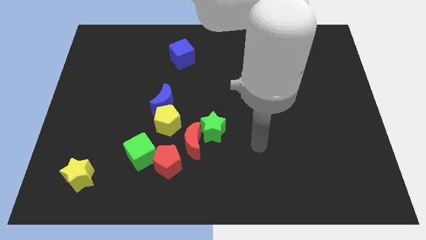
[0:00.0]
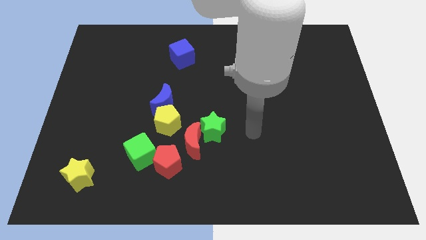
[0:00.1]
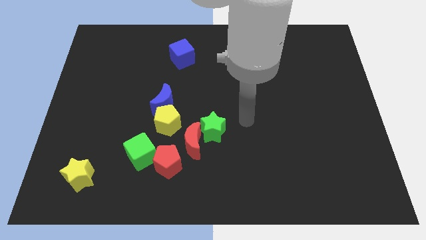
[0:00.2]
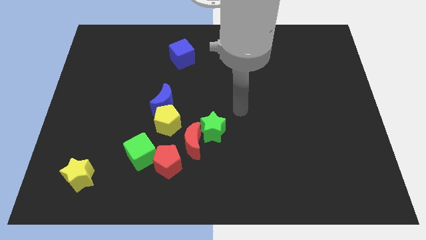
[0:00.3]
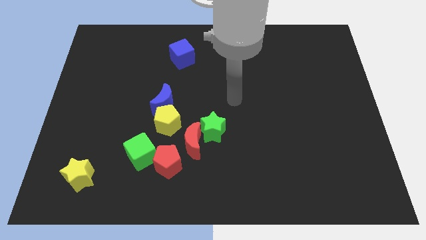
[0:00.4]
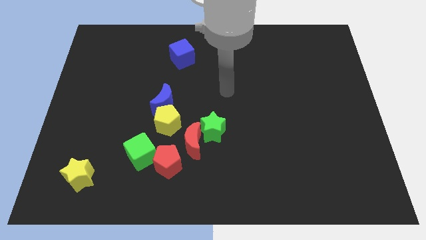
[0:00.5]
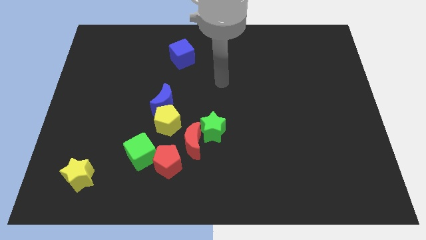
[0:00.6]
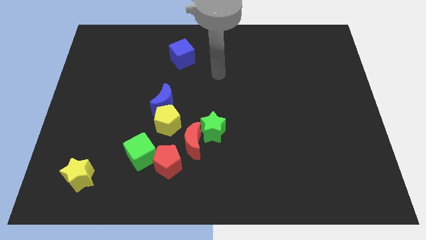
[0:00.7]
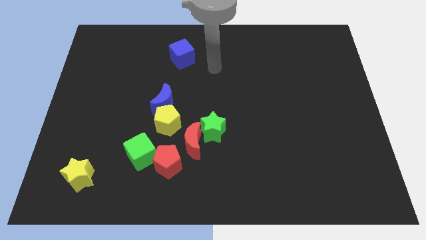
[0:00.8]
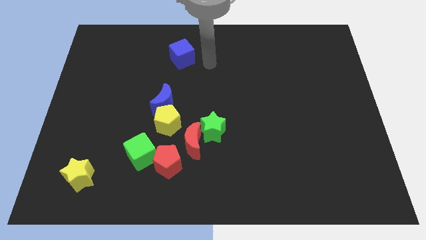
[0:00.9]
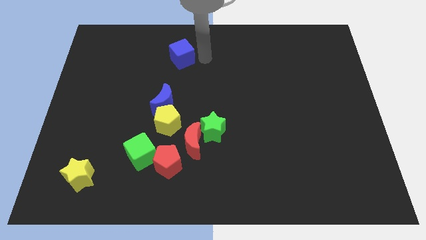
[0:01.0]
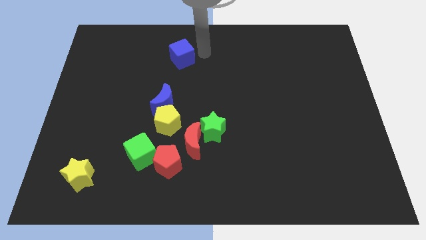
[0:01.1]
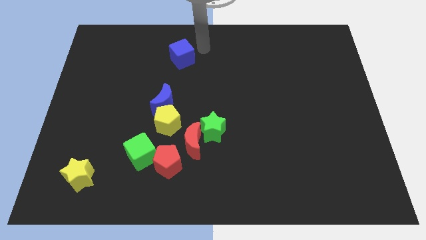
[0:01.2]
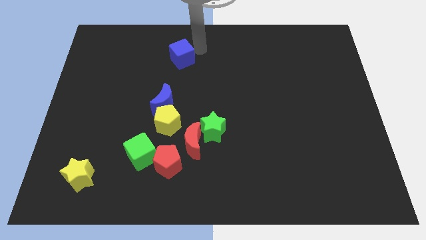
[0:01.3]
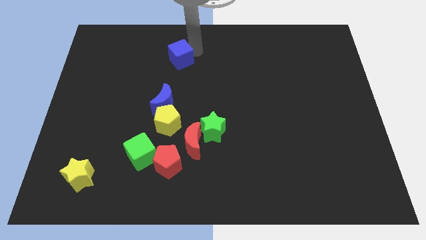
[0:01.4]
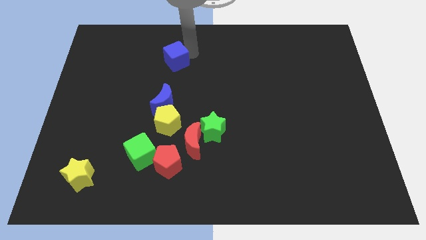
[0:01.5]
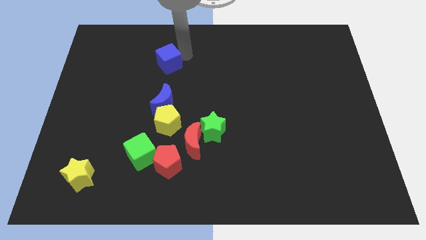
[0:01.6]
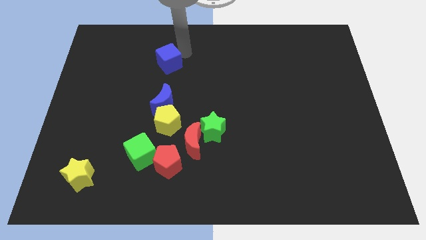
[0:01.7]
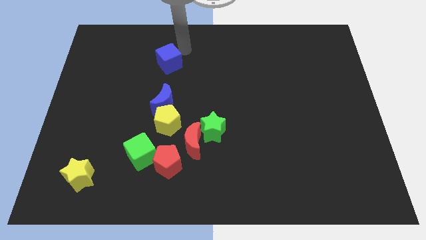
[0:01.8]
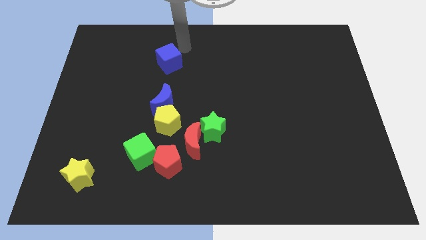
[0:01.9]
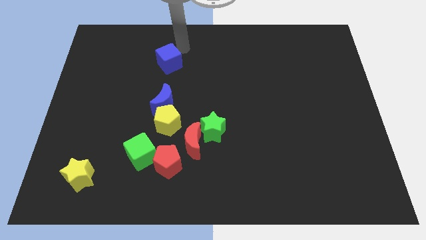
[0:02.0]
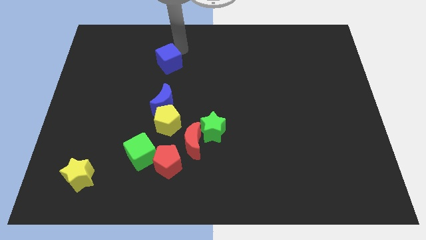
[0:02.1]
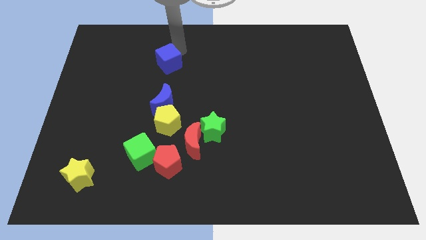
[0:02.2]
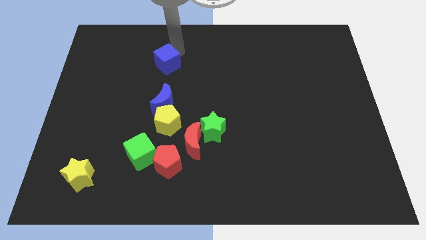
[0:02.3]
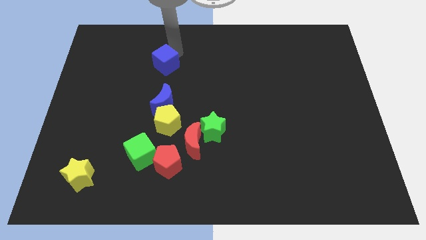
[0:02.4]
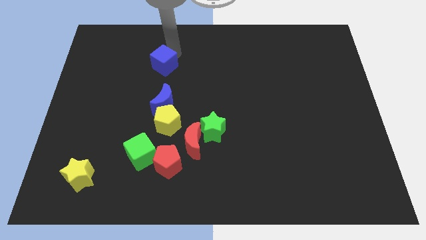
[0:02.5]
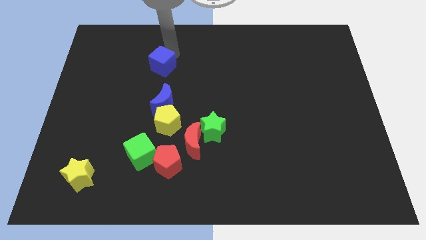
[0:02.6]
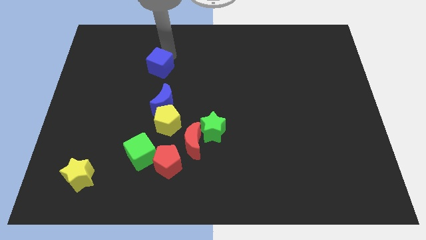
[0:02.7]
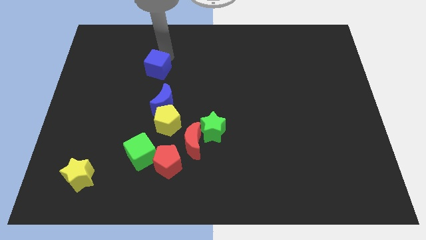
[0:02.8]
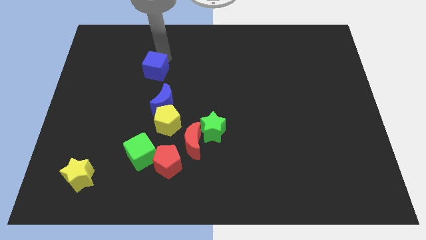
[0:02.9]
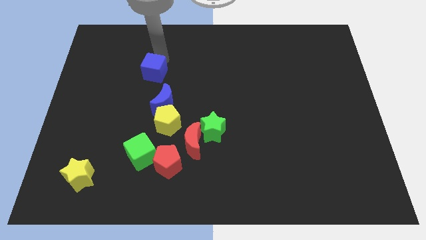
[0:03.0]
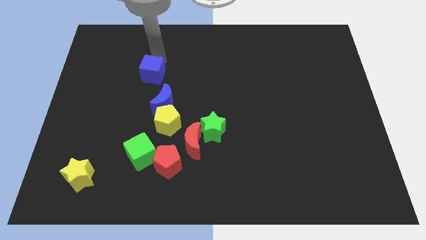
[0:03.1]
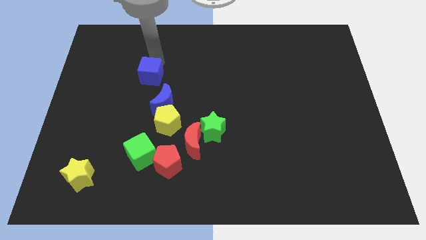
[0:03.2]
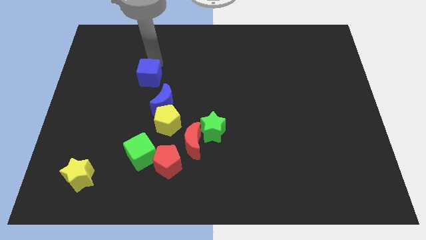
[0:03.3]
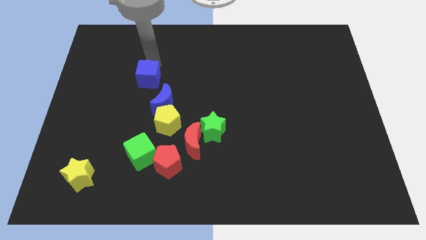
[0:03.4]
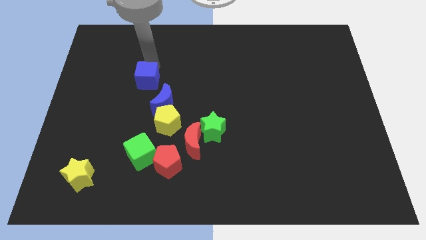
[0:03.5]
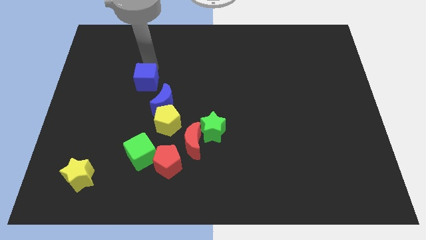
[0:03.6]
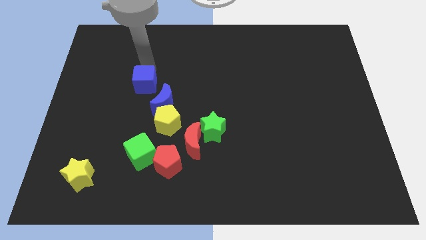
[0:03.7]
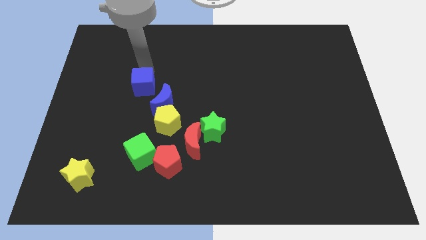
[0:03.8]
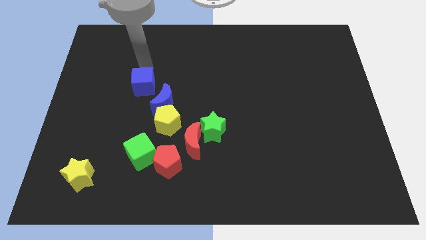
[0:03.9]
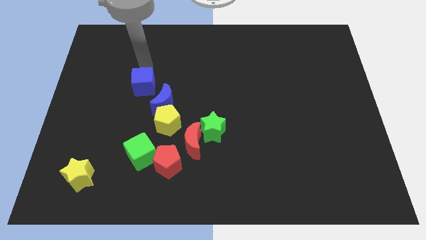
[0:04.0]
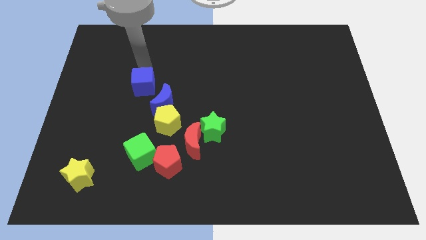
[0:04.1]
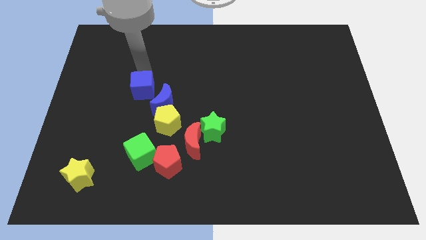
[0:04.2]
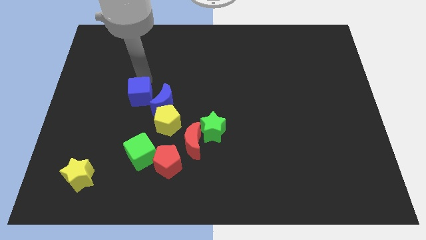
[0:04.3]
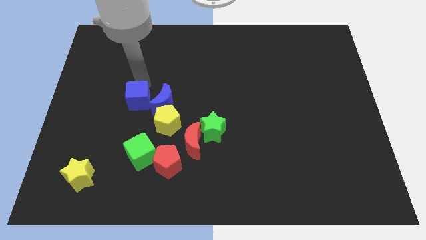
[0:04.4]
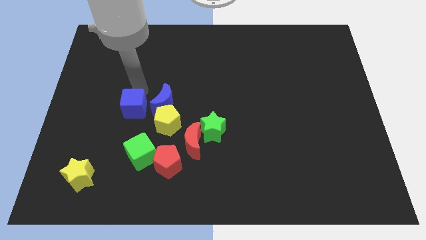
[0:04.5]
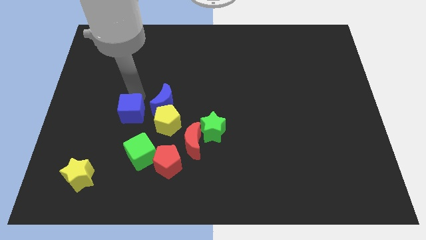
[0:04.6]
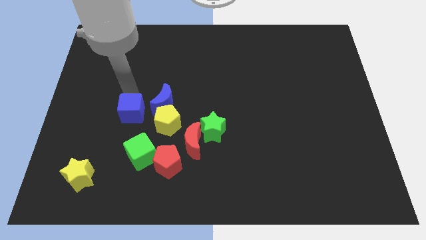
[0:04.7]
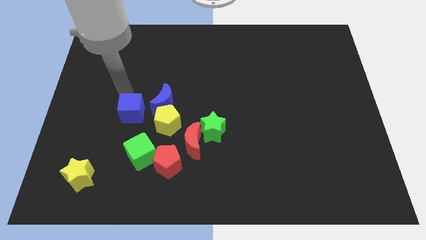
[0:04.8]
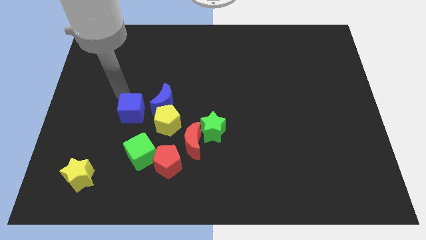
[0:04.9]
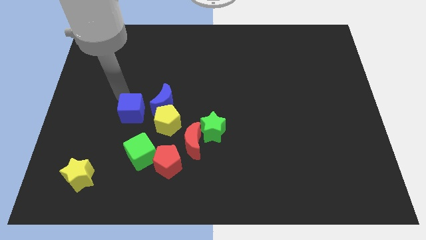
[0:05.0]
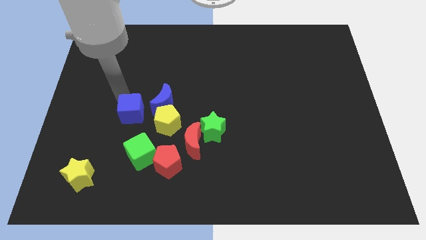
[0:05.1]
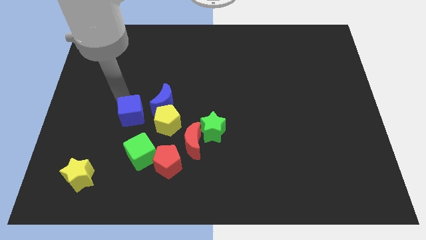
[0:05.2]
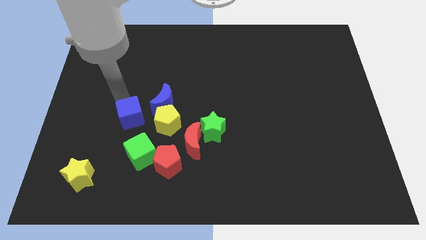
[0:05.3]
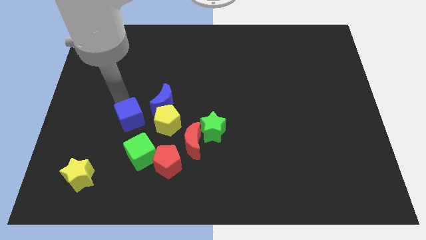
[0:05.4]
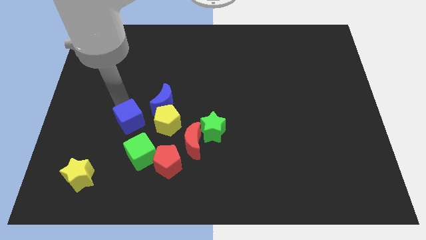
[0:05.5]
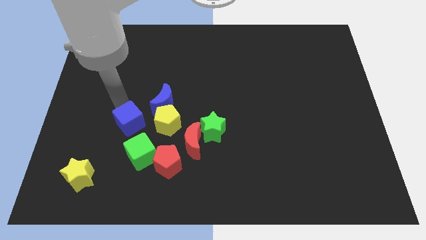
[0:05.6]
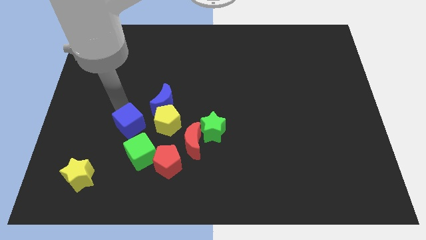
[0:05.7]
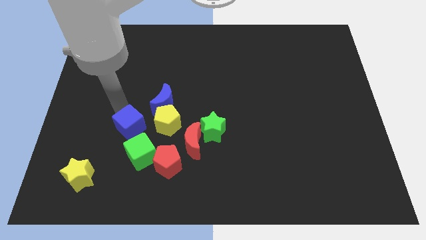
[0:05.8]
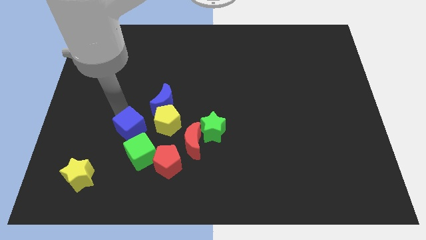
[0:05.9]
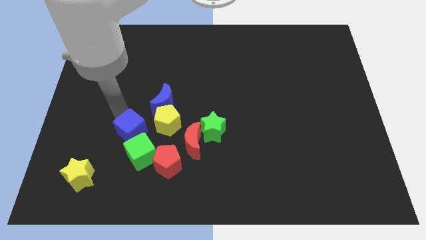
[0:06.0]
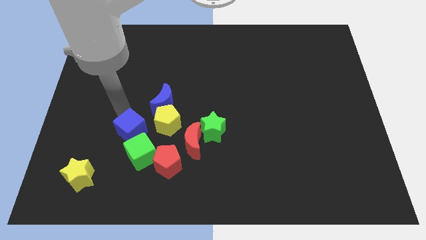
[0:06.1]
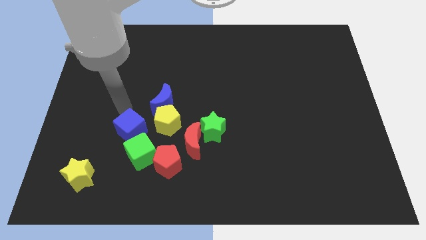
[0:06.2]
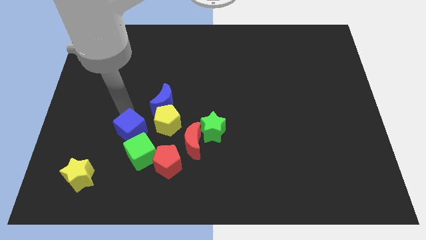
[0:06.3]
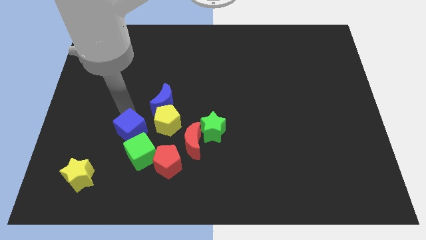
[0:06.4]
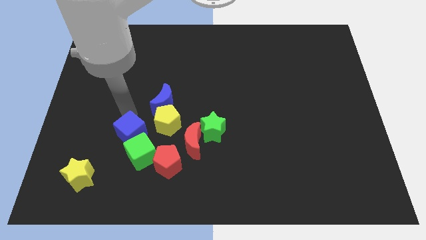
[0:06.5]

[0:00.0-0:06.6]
put the blue cube towards the green cube

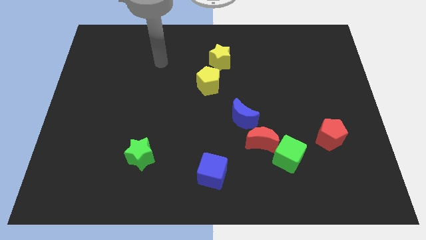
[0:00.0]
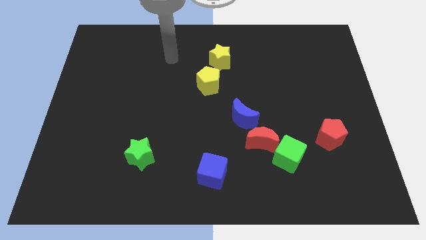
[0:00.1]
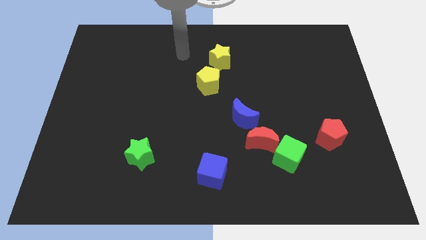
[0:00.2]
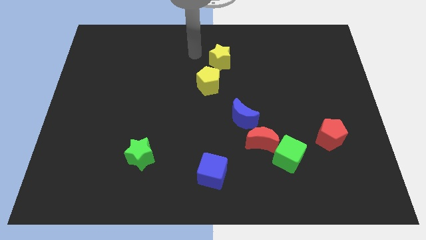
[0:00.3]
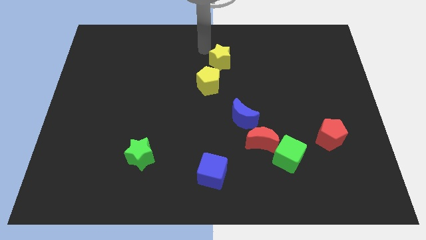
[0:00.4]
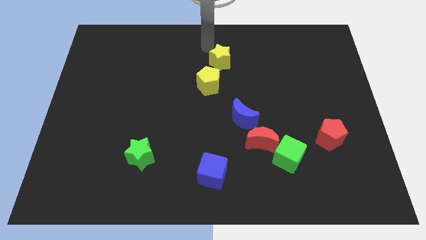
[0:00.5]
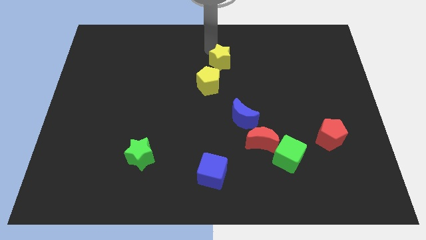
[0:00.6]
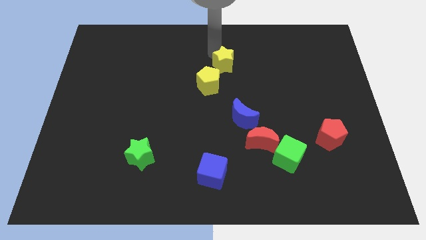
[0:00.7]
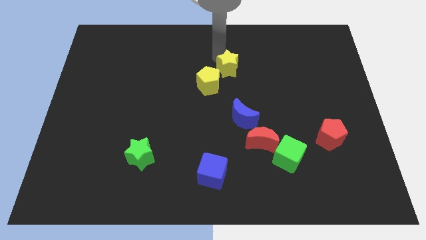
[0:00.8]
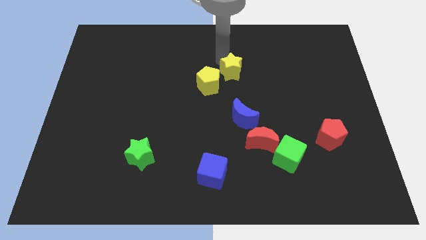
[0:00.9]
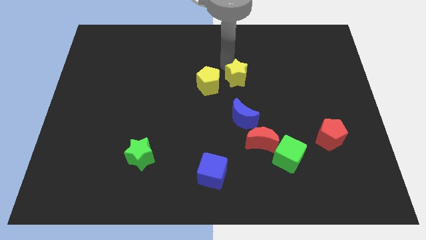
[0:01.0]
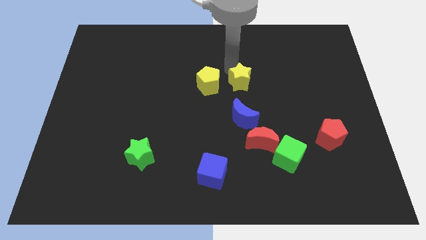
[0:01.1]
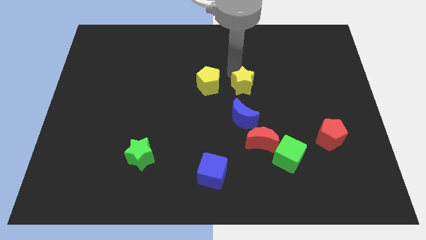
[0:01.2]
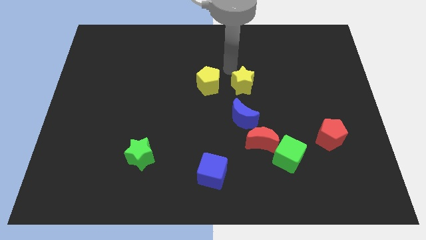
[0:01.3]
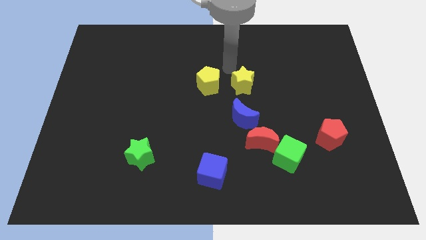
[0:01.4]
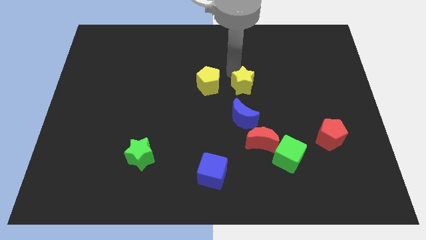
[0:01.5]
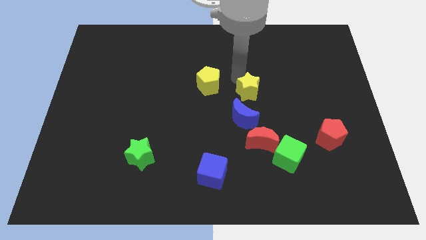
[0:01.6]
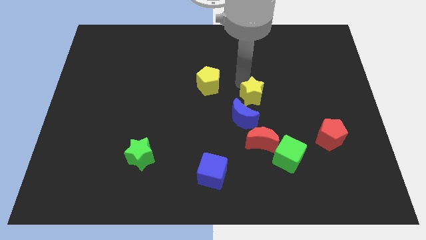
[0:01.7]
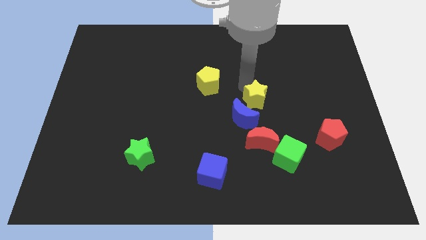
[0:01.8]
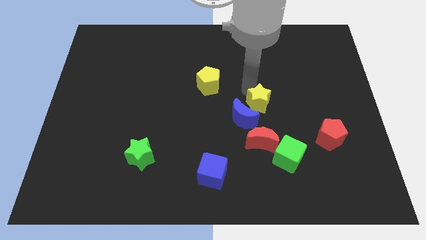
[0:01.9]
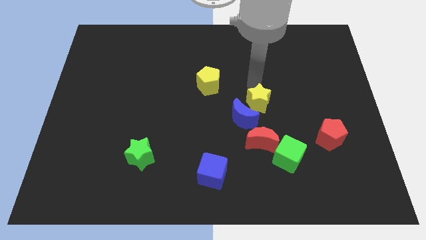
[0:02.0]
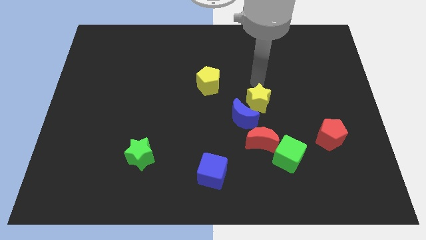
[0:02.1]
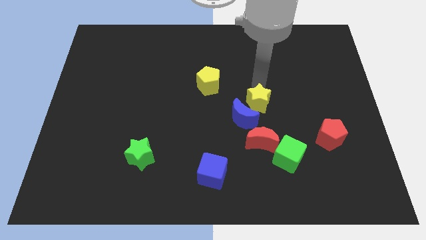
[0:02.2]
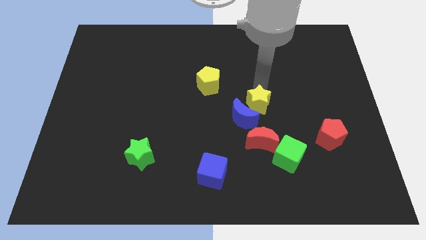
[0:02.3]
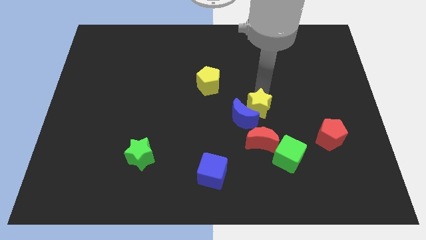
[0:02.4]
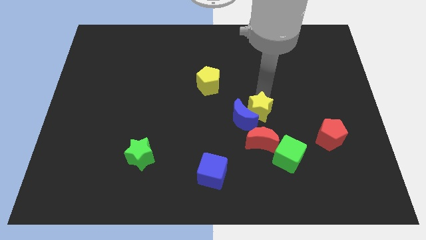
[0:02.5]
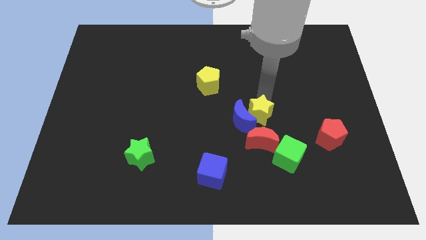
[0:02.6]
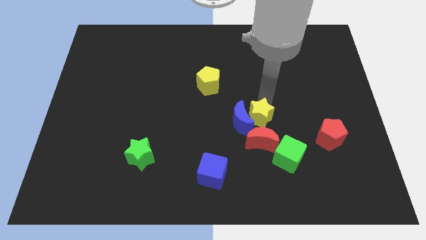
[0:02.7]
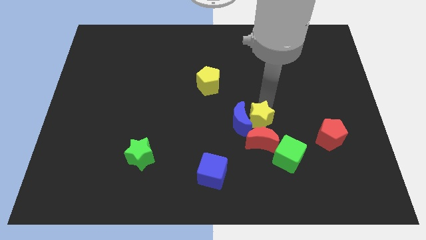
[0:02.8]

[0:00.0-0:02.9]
push the yellow star next to the red moon
